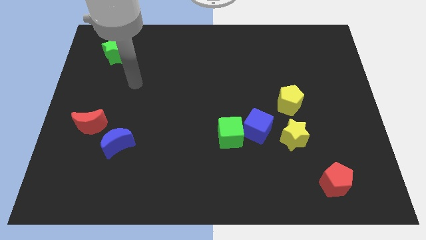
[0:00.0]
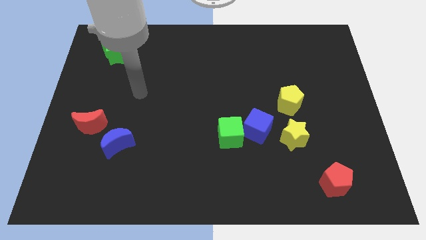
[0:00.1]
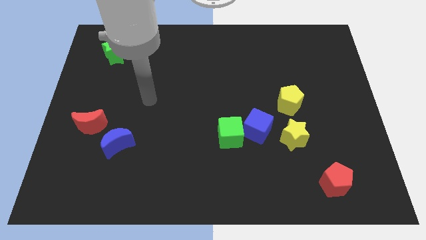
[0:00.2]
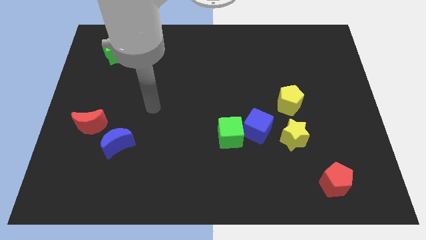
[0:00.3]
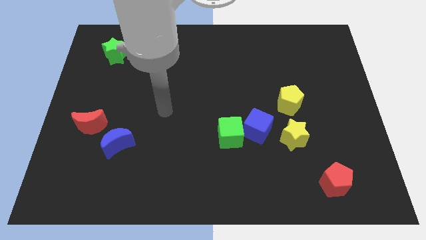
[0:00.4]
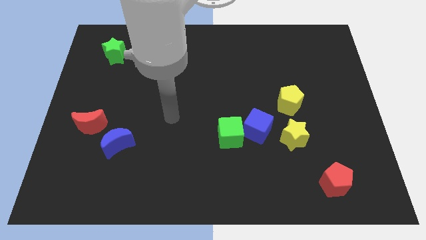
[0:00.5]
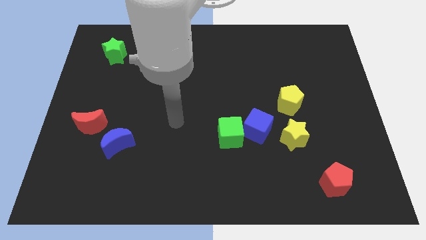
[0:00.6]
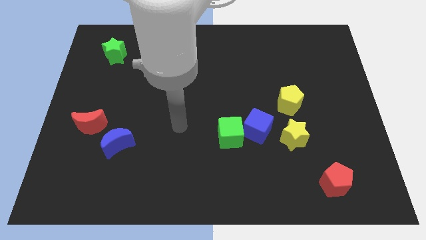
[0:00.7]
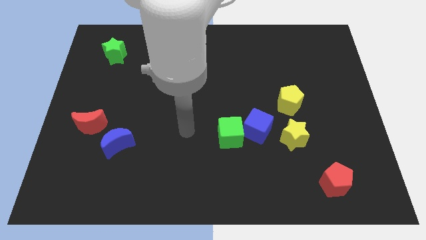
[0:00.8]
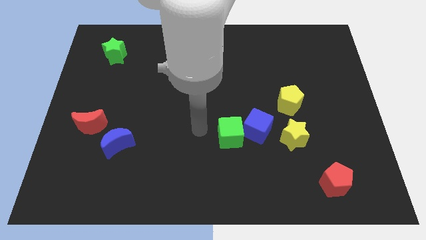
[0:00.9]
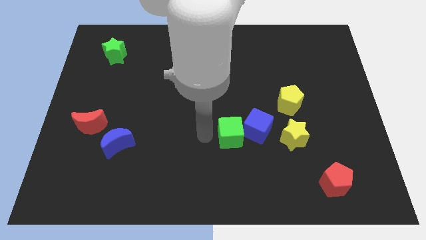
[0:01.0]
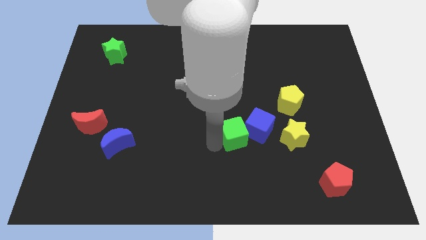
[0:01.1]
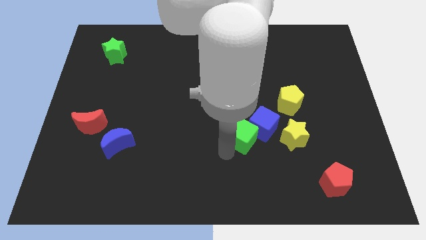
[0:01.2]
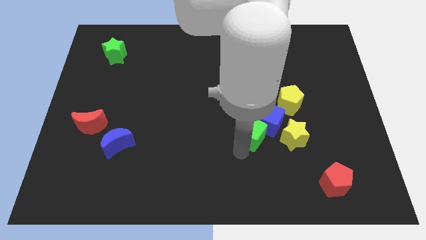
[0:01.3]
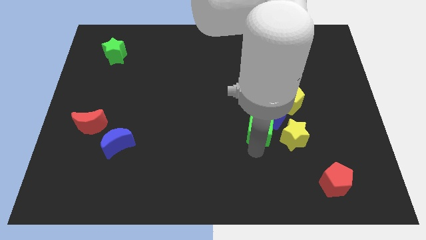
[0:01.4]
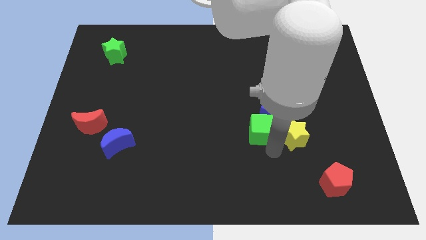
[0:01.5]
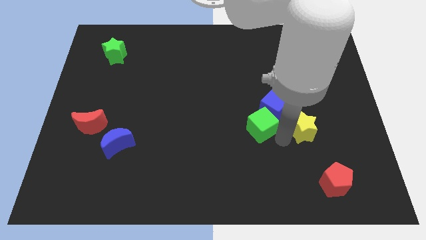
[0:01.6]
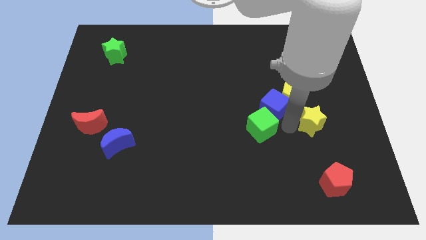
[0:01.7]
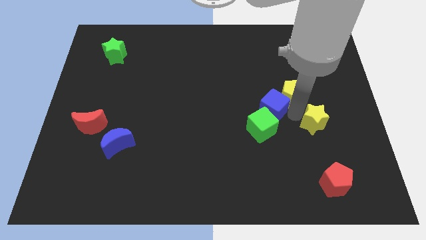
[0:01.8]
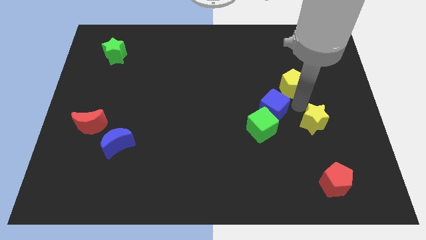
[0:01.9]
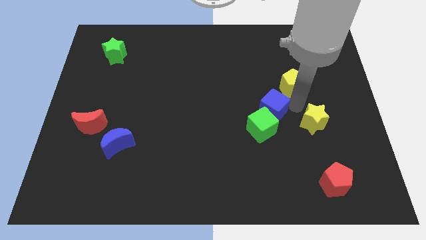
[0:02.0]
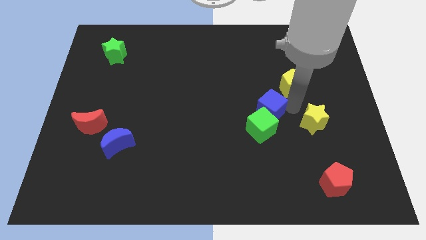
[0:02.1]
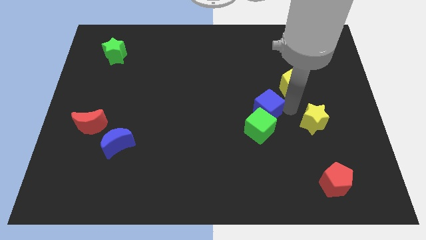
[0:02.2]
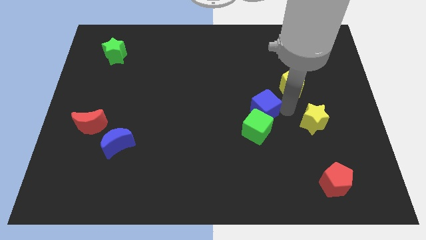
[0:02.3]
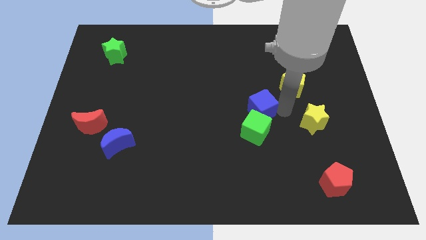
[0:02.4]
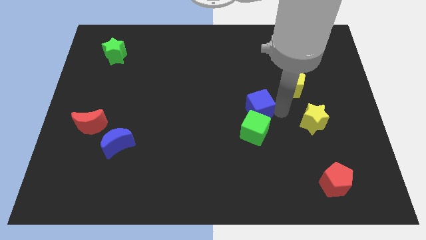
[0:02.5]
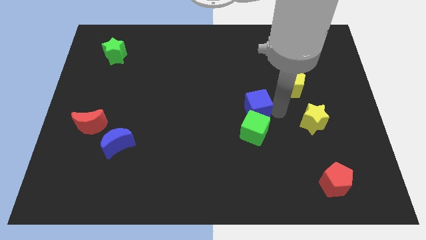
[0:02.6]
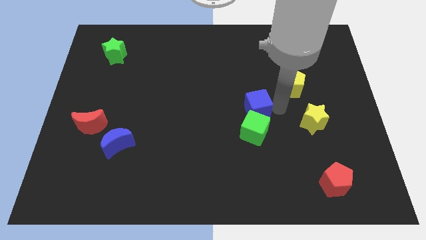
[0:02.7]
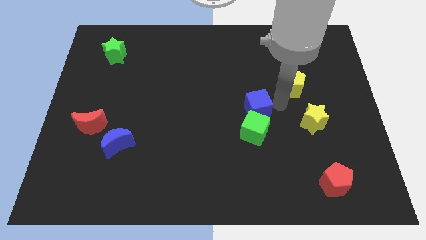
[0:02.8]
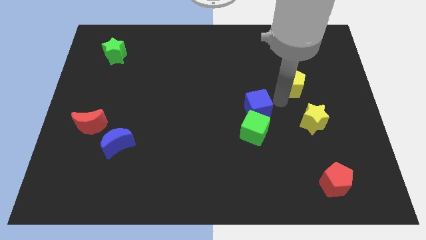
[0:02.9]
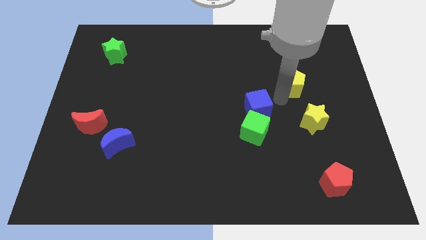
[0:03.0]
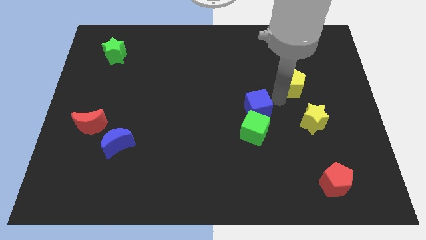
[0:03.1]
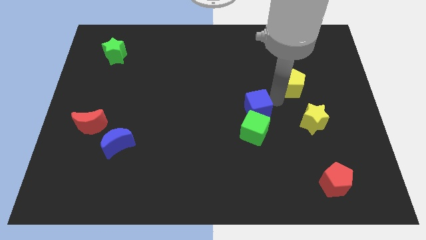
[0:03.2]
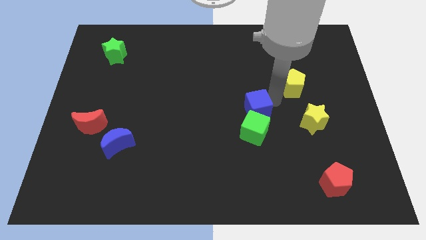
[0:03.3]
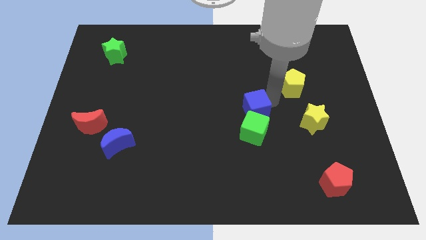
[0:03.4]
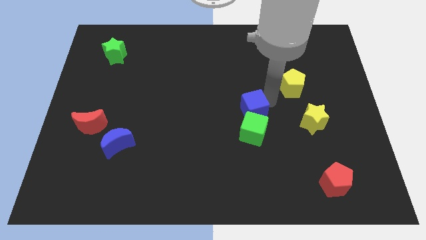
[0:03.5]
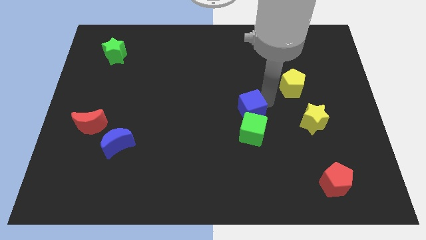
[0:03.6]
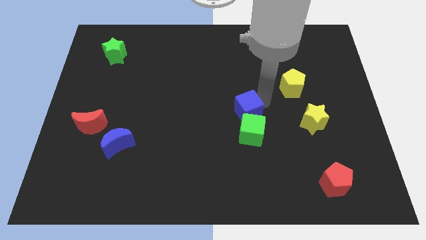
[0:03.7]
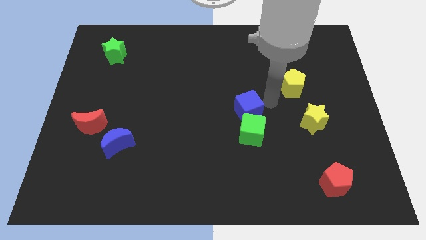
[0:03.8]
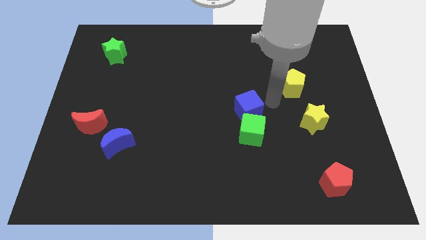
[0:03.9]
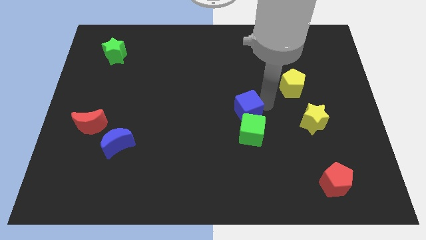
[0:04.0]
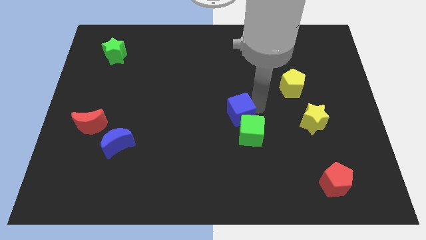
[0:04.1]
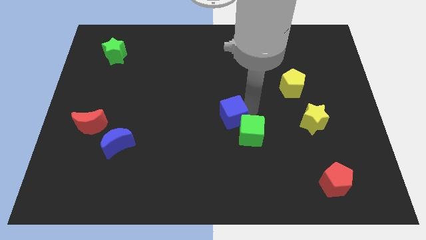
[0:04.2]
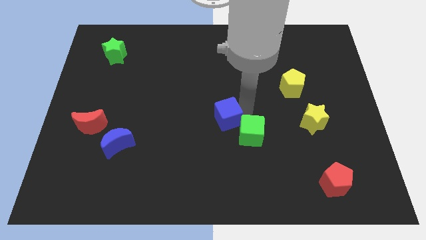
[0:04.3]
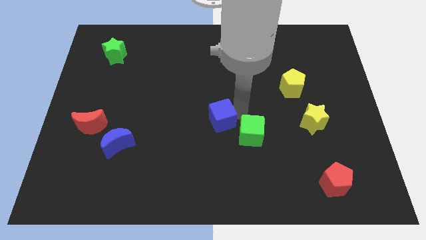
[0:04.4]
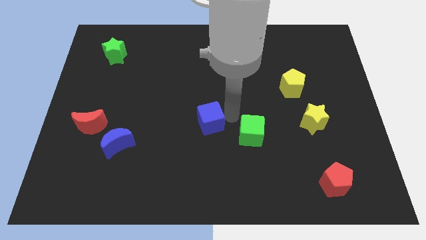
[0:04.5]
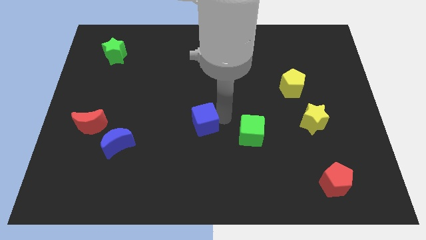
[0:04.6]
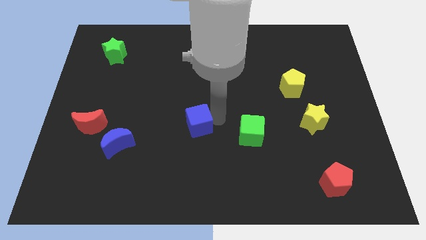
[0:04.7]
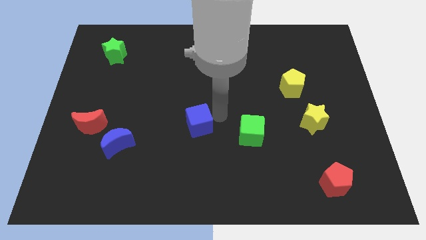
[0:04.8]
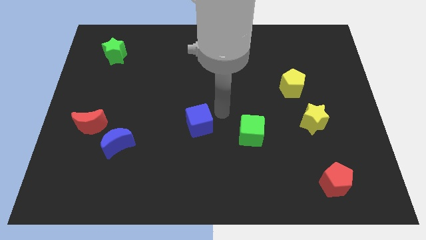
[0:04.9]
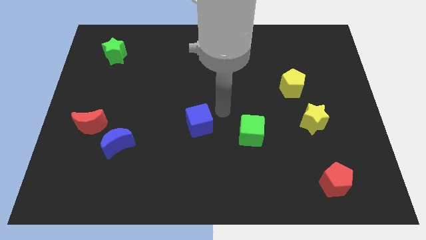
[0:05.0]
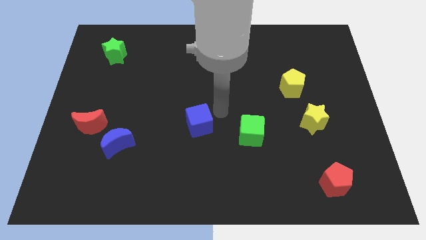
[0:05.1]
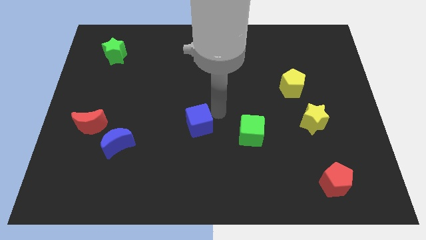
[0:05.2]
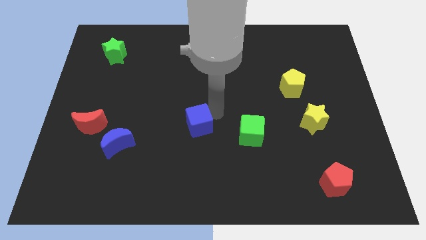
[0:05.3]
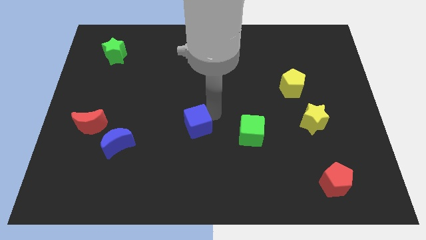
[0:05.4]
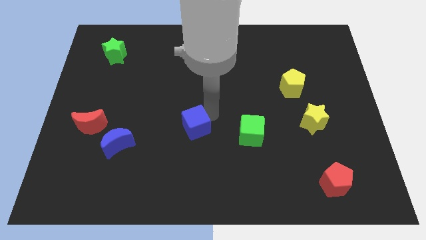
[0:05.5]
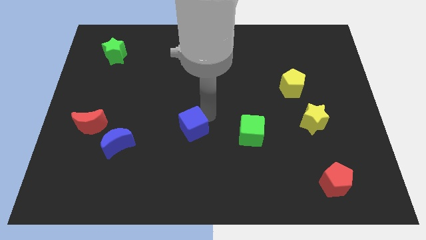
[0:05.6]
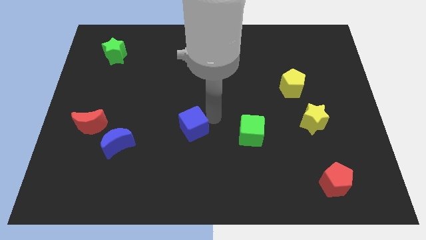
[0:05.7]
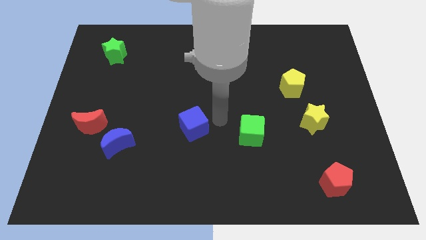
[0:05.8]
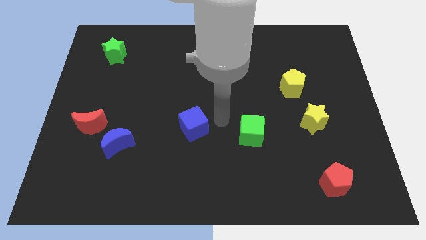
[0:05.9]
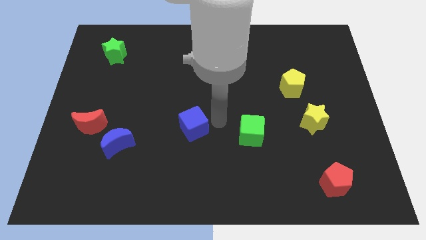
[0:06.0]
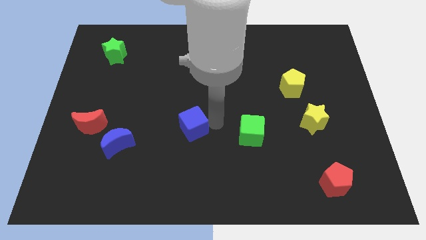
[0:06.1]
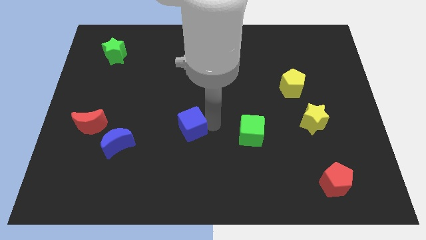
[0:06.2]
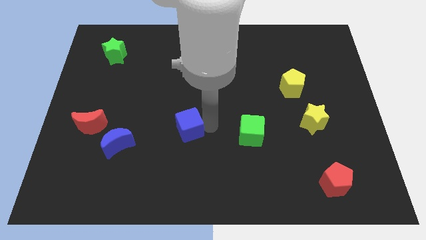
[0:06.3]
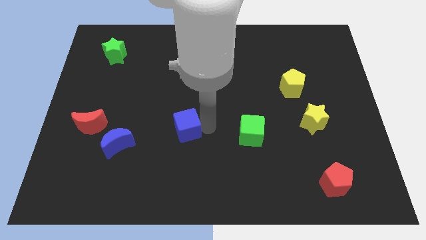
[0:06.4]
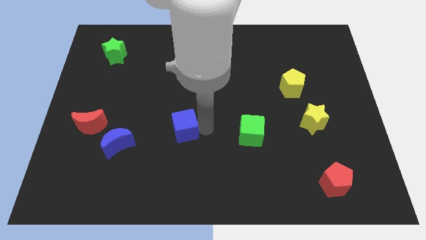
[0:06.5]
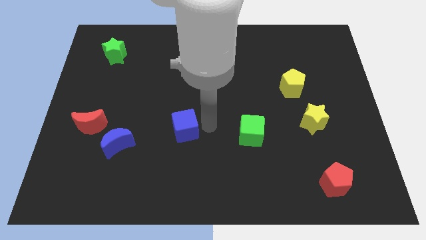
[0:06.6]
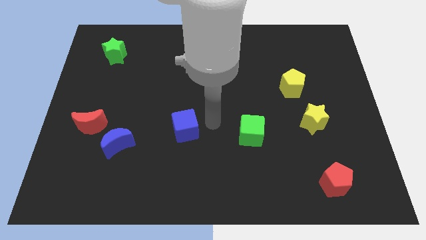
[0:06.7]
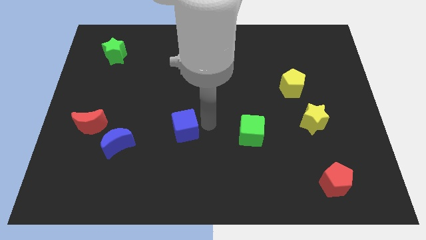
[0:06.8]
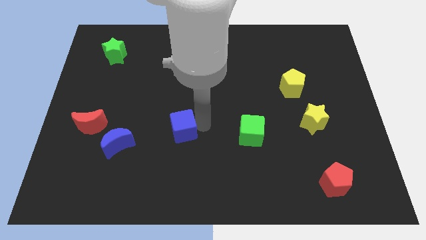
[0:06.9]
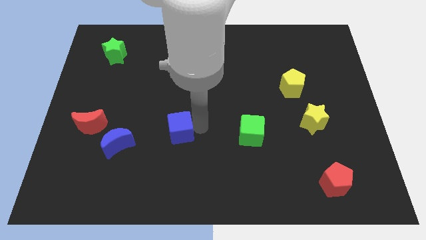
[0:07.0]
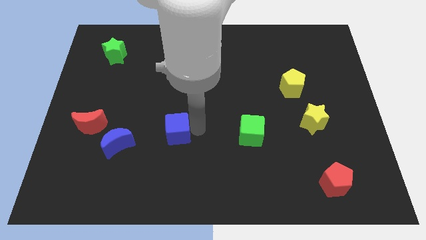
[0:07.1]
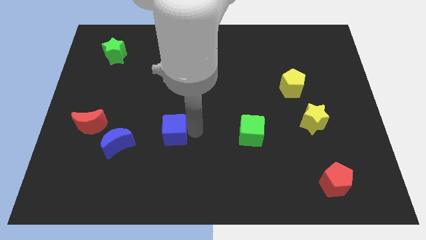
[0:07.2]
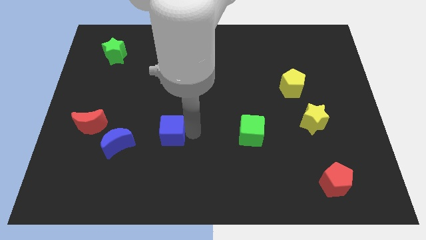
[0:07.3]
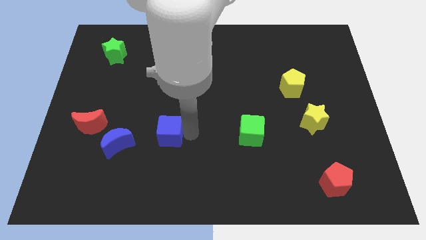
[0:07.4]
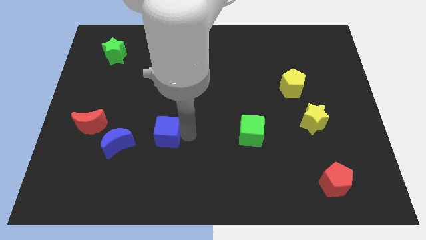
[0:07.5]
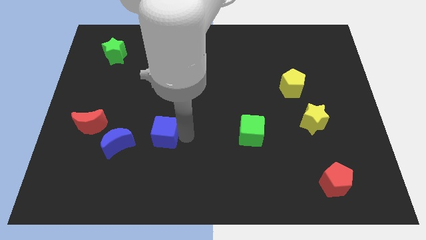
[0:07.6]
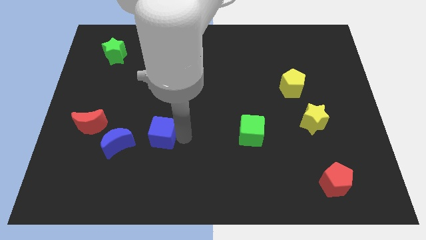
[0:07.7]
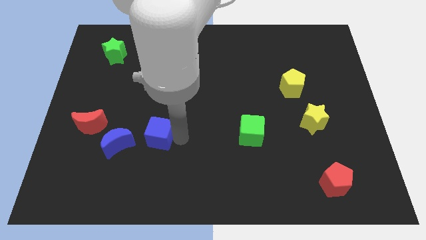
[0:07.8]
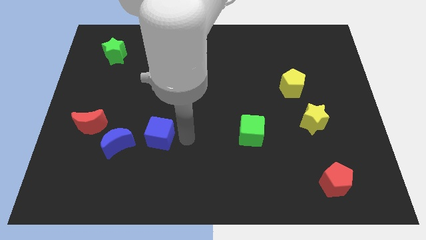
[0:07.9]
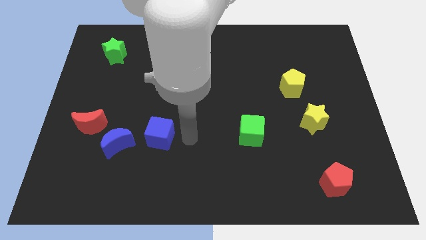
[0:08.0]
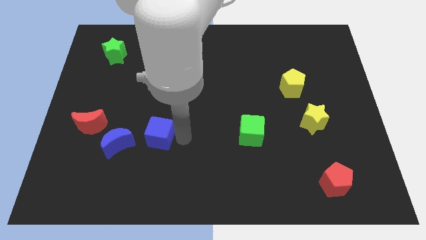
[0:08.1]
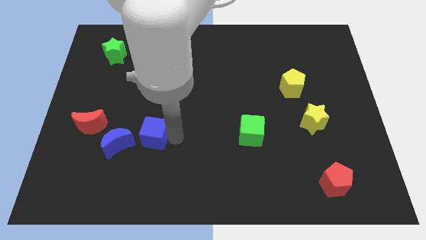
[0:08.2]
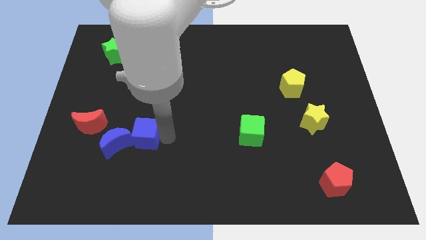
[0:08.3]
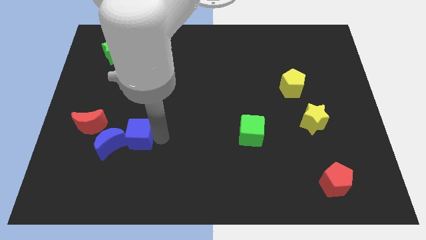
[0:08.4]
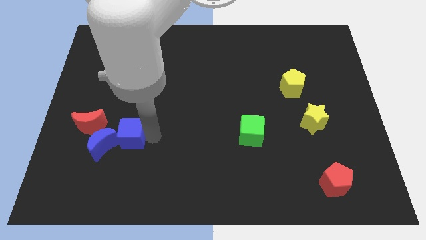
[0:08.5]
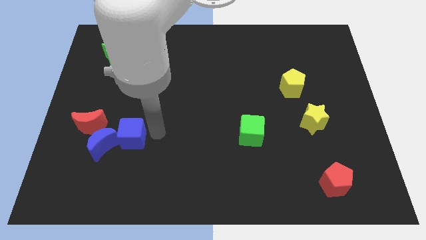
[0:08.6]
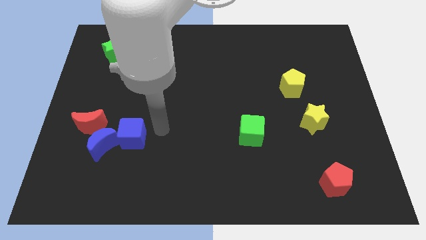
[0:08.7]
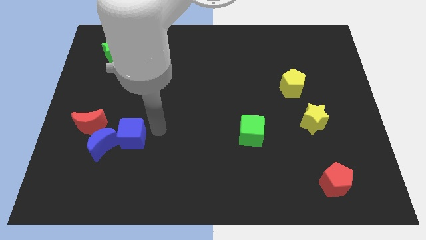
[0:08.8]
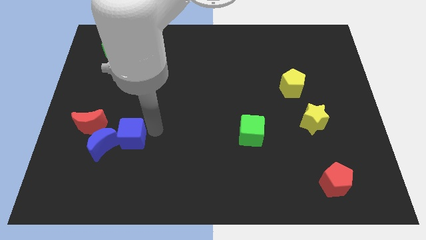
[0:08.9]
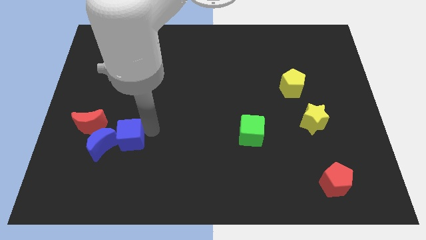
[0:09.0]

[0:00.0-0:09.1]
slide the blue cube next to the blue moon
